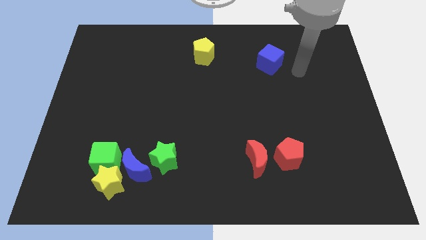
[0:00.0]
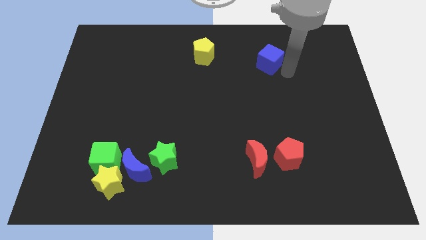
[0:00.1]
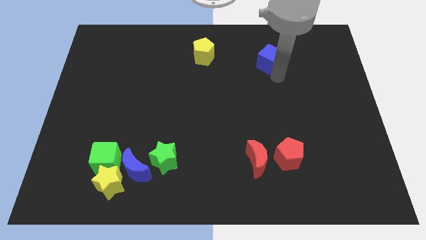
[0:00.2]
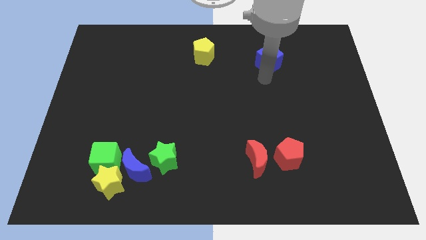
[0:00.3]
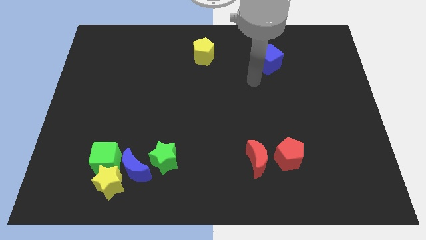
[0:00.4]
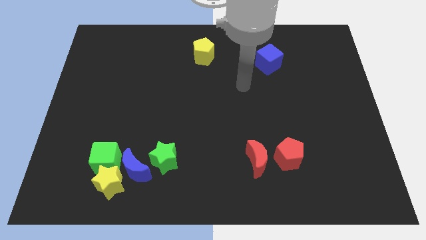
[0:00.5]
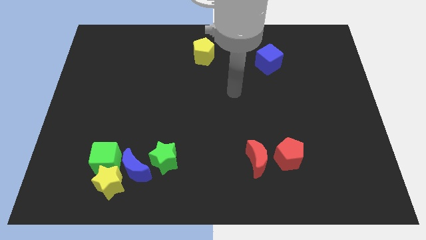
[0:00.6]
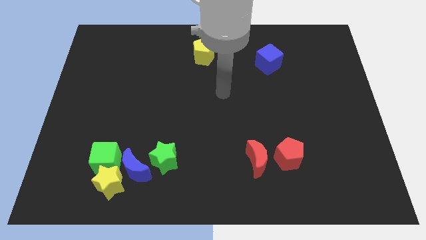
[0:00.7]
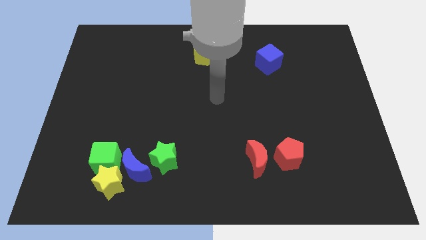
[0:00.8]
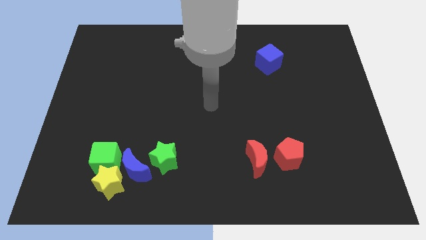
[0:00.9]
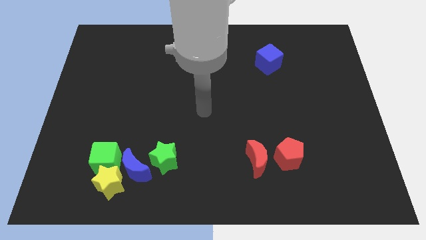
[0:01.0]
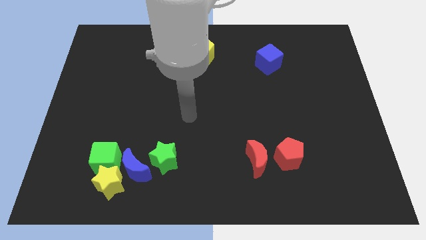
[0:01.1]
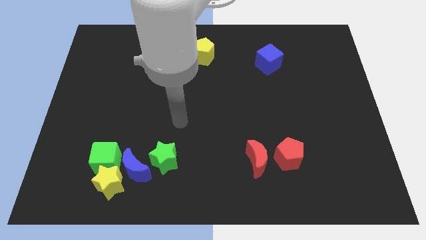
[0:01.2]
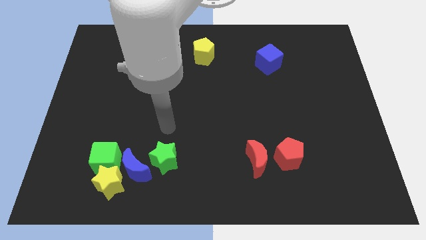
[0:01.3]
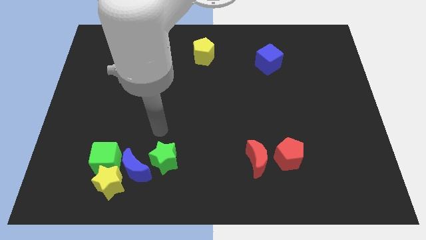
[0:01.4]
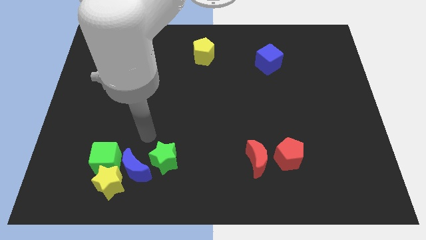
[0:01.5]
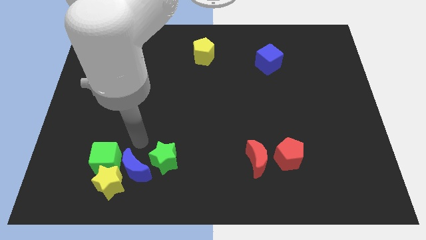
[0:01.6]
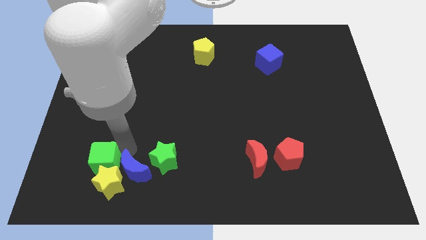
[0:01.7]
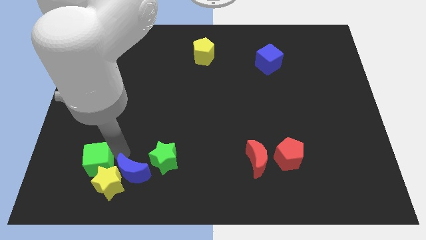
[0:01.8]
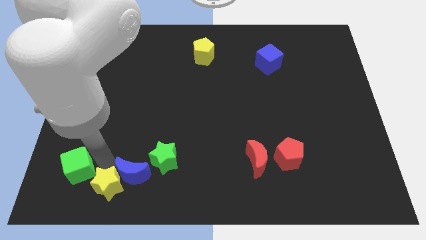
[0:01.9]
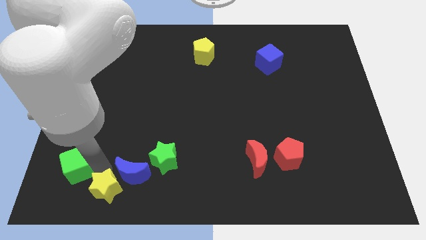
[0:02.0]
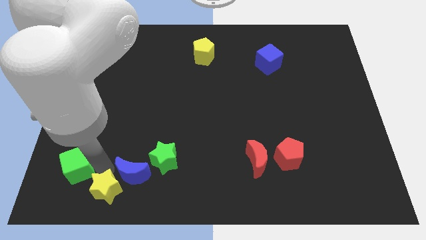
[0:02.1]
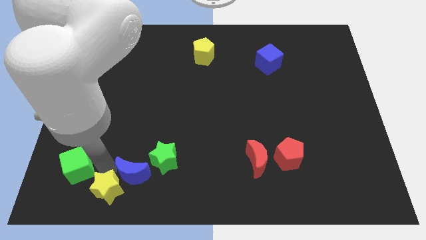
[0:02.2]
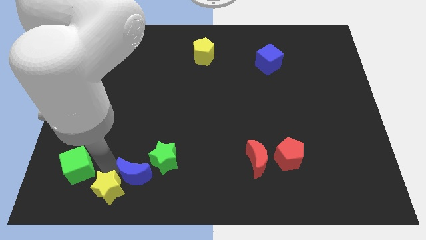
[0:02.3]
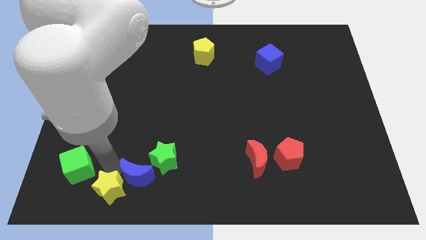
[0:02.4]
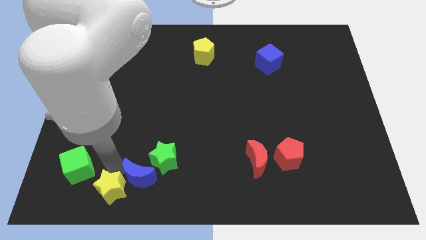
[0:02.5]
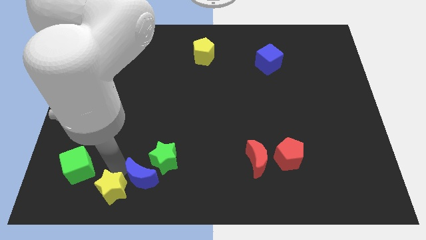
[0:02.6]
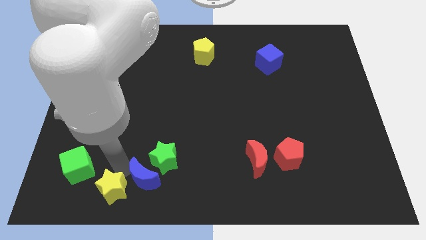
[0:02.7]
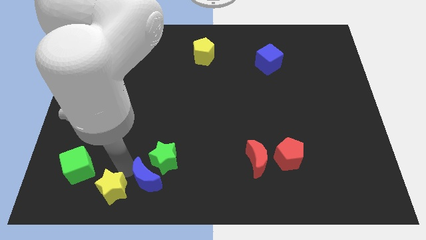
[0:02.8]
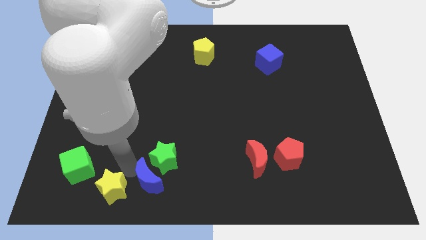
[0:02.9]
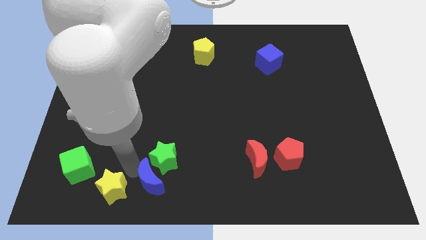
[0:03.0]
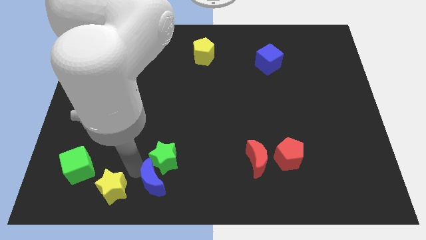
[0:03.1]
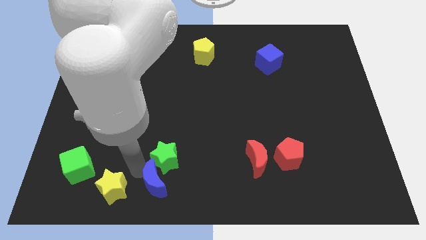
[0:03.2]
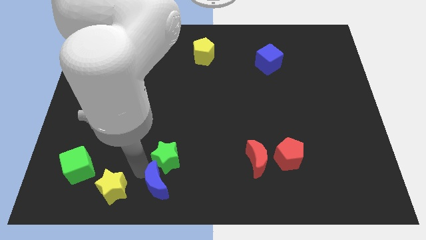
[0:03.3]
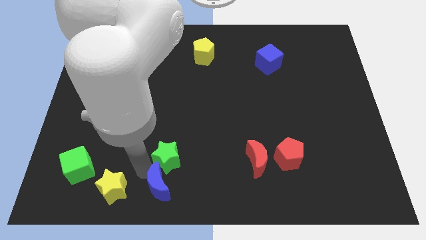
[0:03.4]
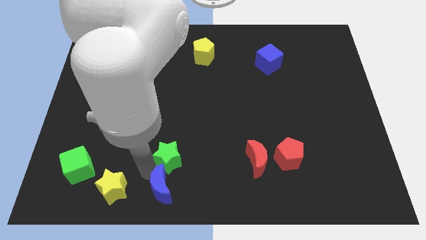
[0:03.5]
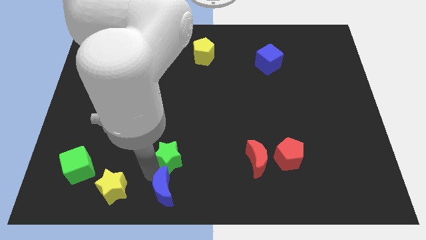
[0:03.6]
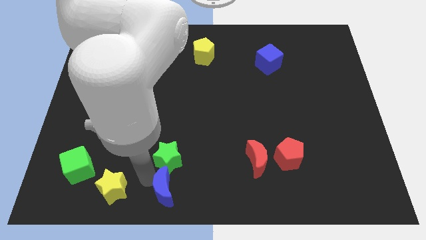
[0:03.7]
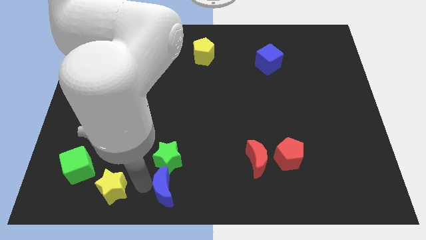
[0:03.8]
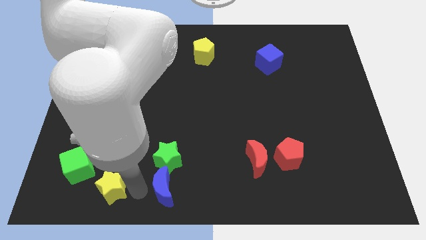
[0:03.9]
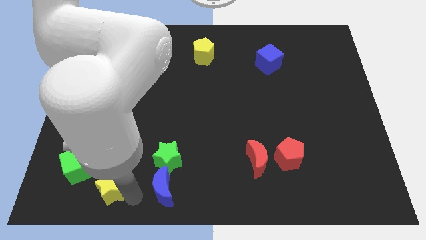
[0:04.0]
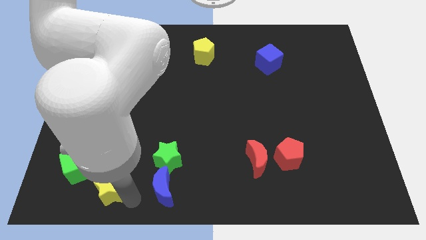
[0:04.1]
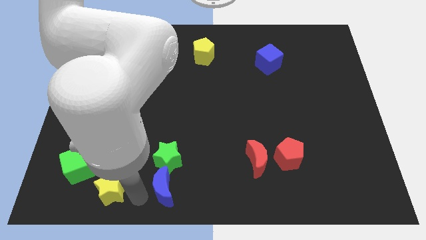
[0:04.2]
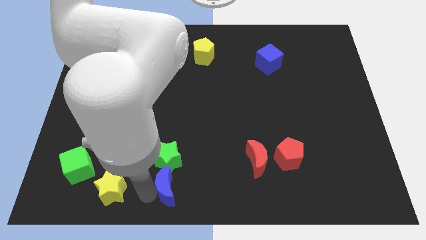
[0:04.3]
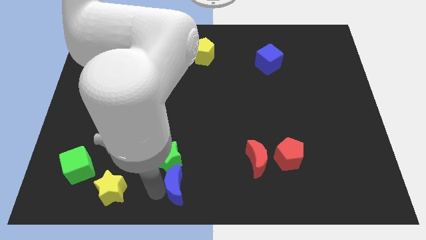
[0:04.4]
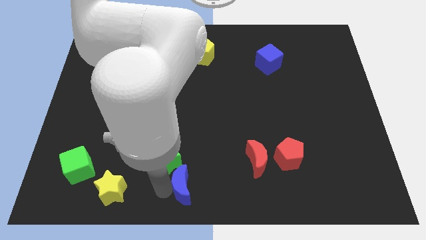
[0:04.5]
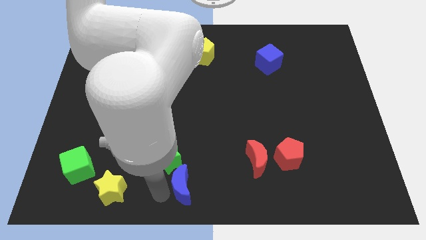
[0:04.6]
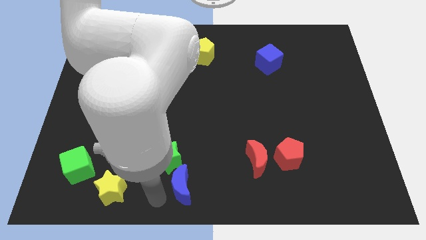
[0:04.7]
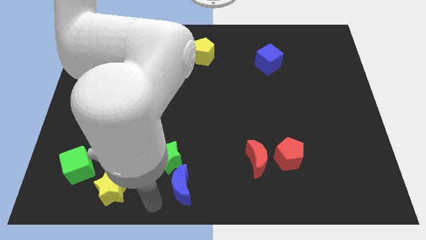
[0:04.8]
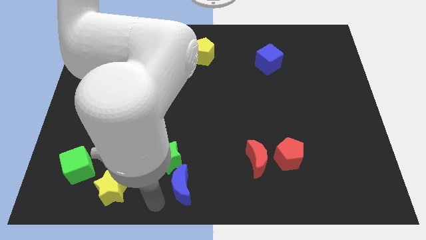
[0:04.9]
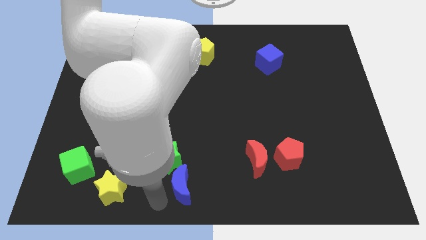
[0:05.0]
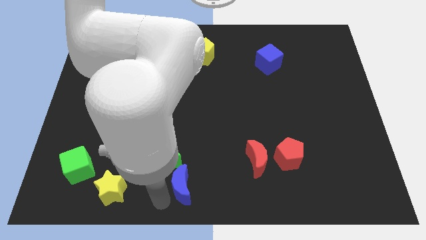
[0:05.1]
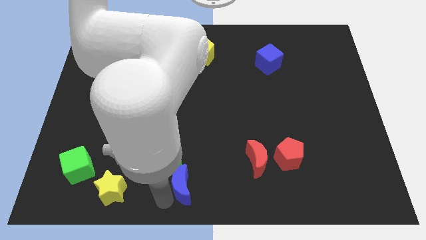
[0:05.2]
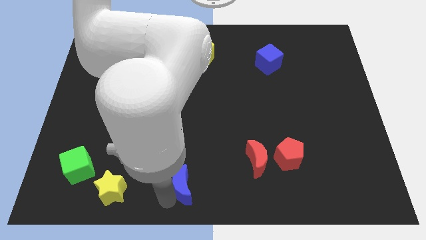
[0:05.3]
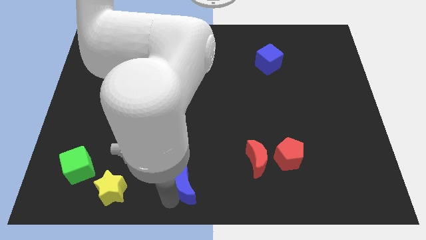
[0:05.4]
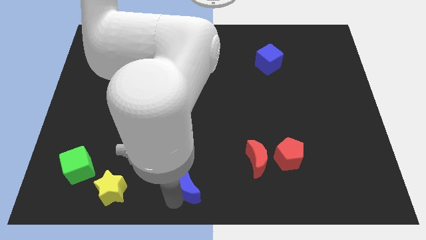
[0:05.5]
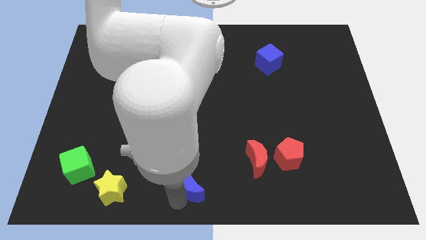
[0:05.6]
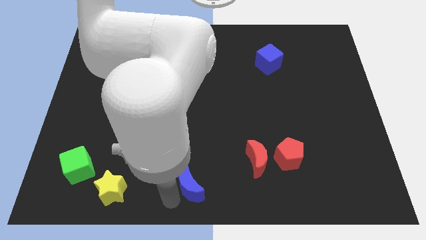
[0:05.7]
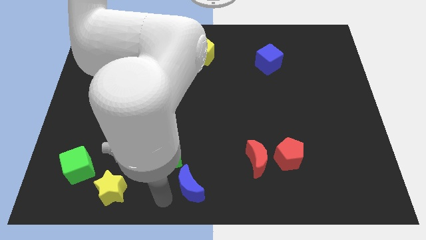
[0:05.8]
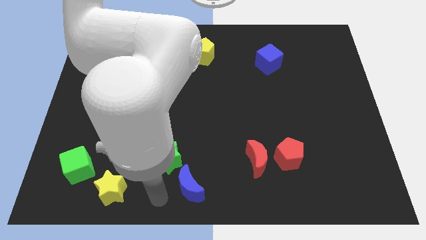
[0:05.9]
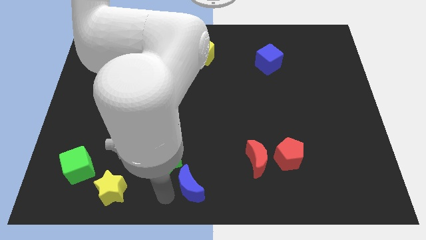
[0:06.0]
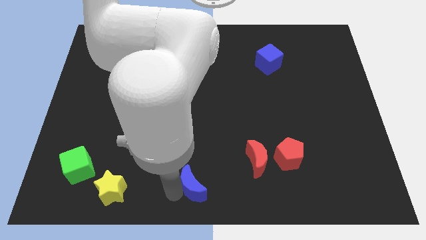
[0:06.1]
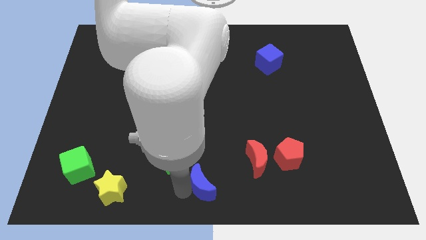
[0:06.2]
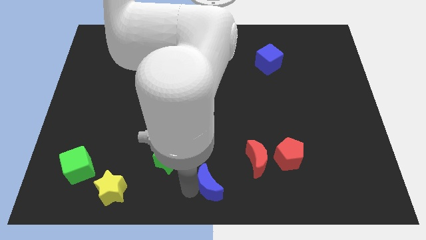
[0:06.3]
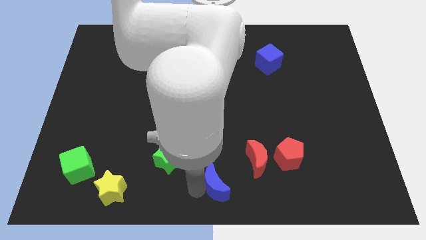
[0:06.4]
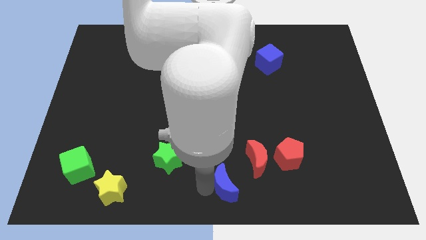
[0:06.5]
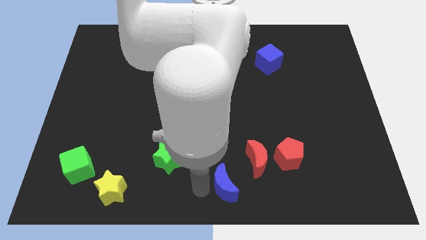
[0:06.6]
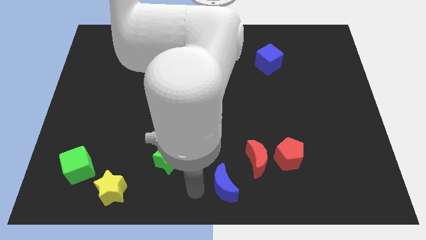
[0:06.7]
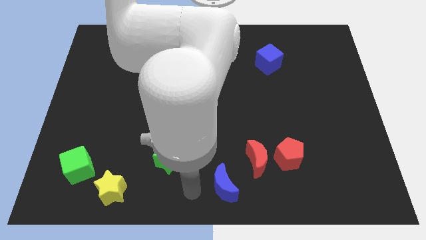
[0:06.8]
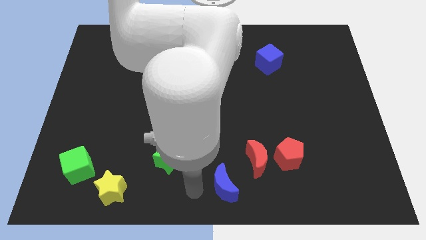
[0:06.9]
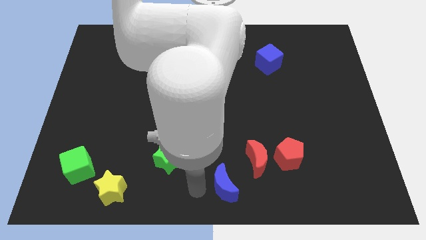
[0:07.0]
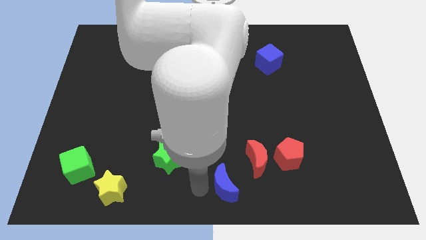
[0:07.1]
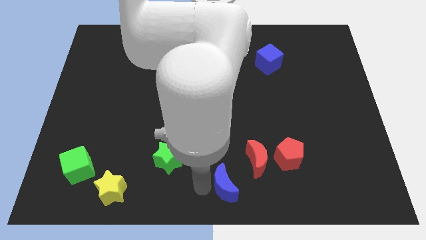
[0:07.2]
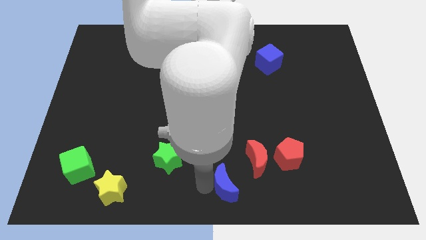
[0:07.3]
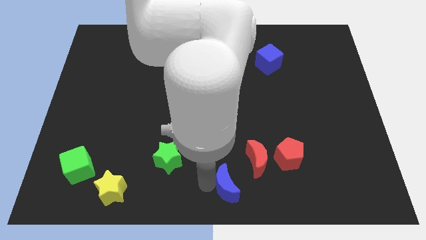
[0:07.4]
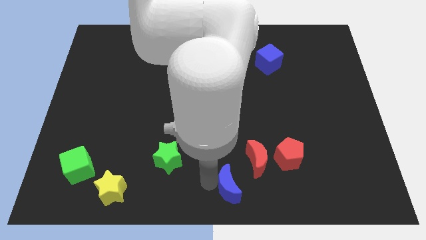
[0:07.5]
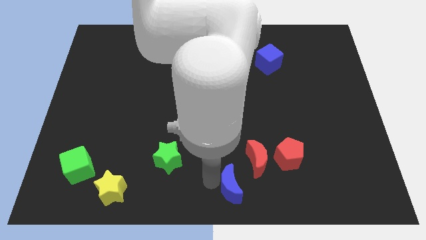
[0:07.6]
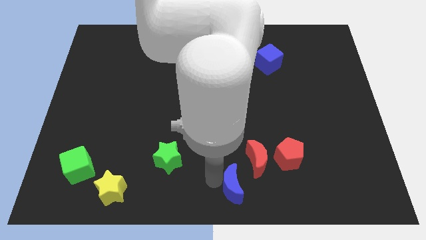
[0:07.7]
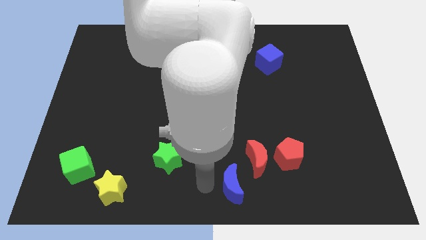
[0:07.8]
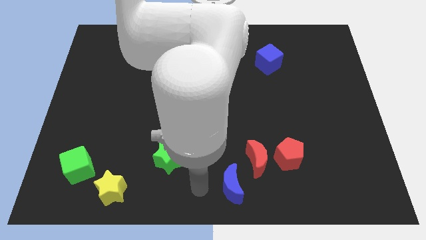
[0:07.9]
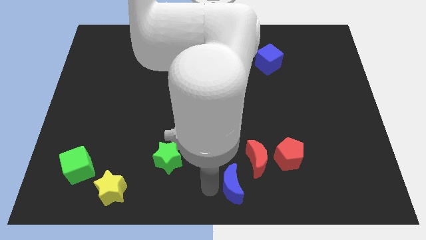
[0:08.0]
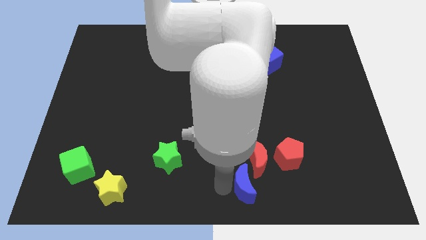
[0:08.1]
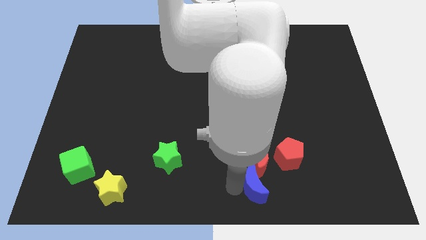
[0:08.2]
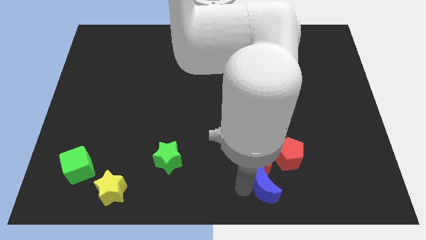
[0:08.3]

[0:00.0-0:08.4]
move the blue moon to the bottom right side of the red moon

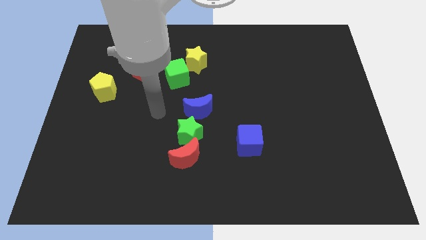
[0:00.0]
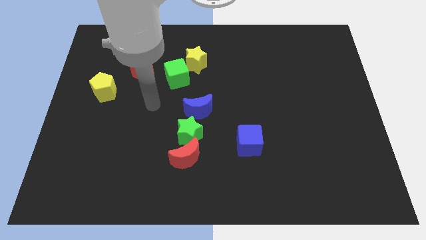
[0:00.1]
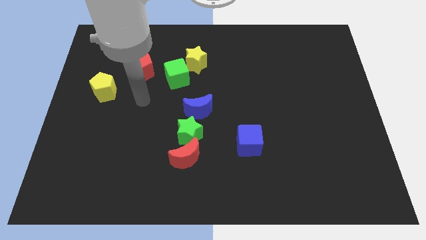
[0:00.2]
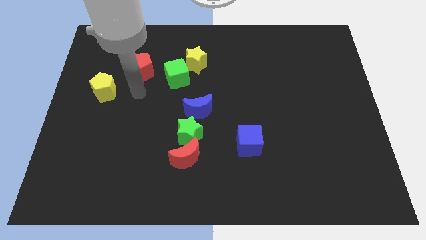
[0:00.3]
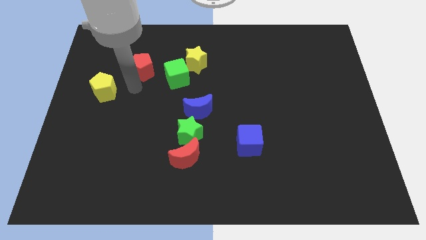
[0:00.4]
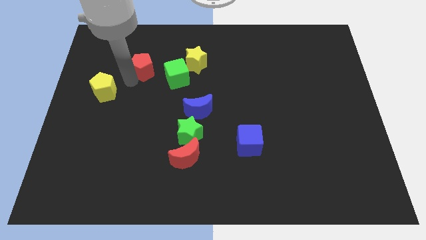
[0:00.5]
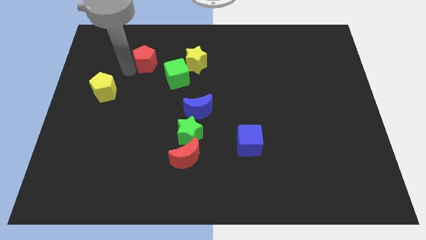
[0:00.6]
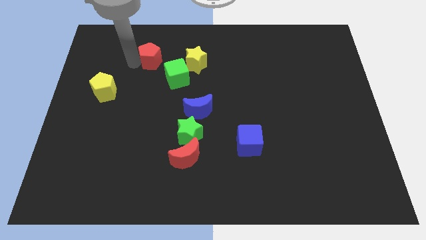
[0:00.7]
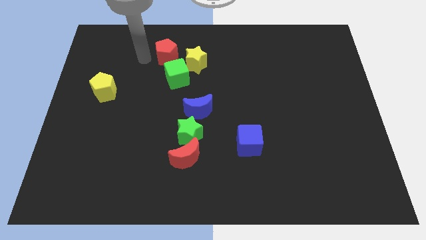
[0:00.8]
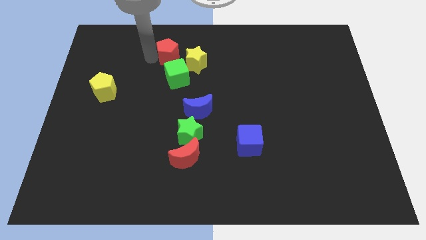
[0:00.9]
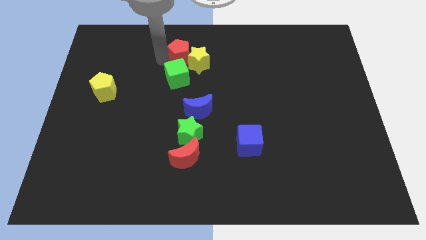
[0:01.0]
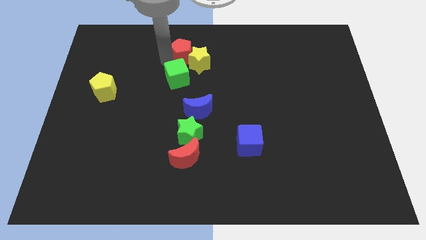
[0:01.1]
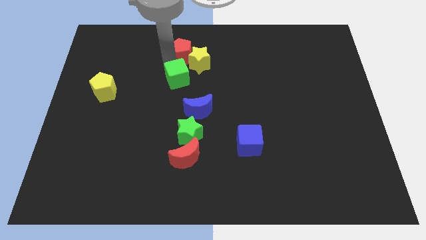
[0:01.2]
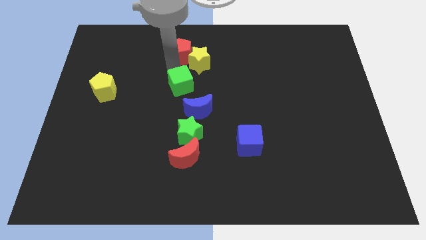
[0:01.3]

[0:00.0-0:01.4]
put the green cube to the top of the green star
